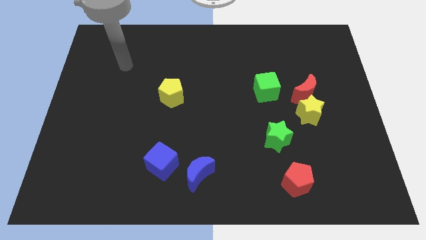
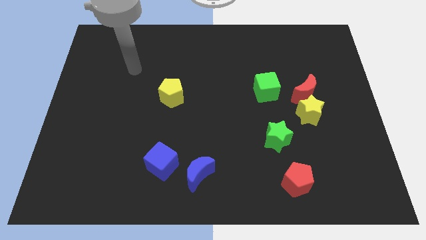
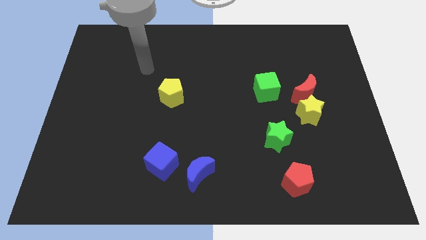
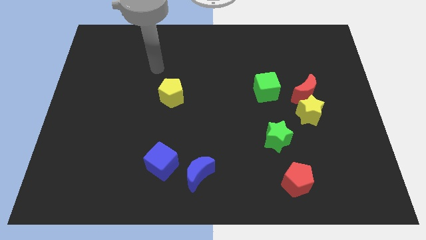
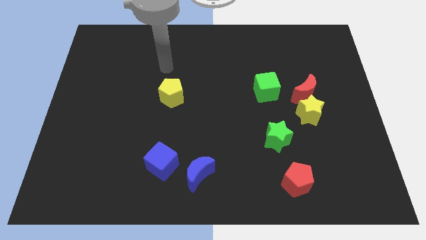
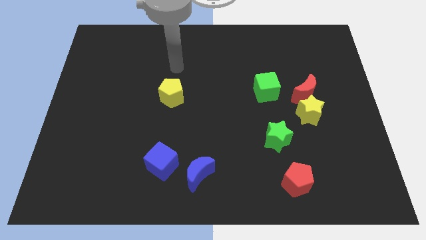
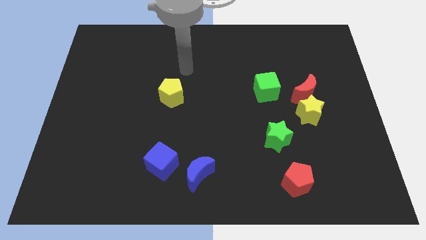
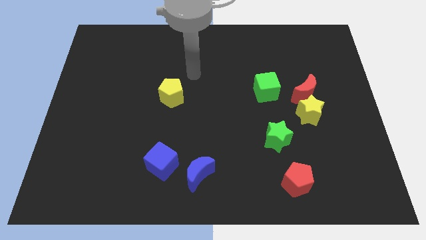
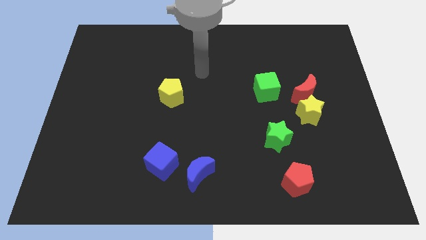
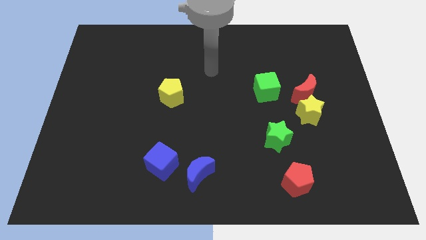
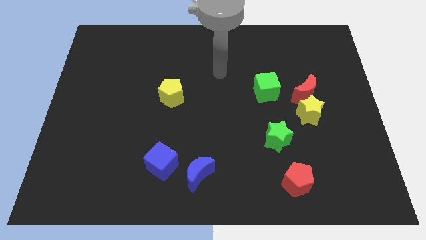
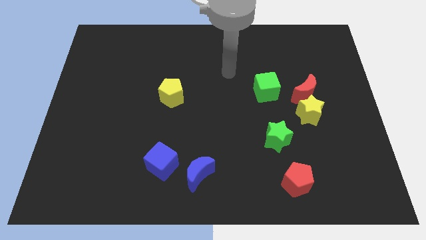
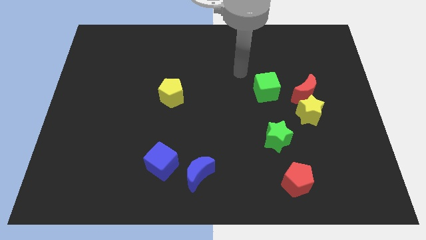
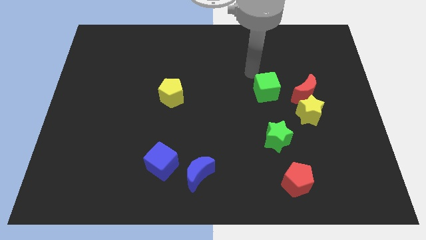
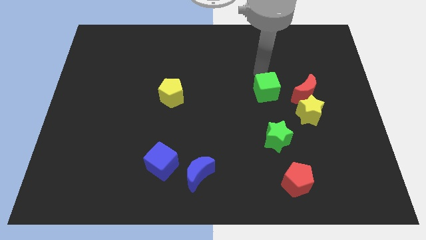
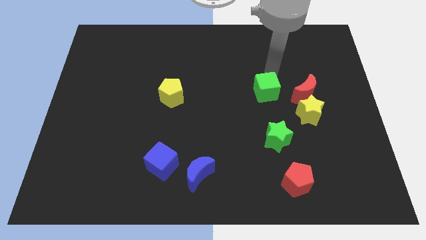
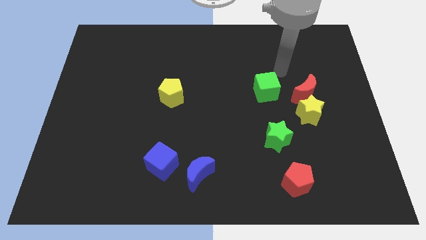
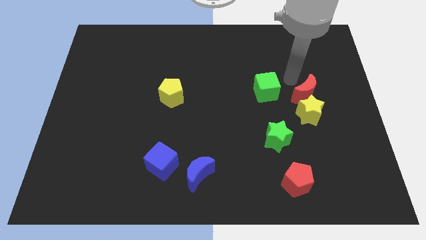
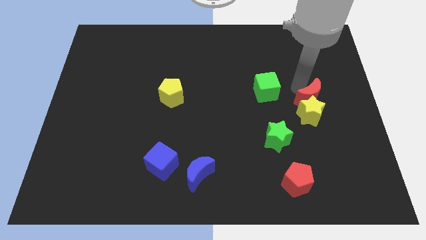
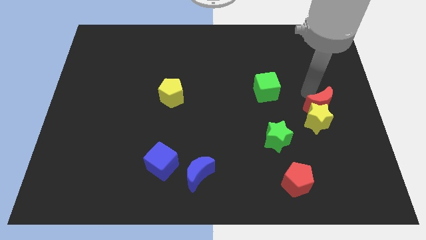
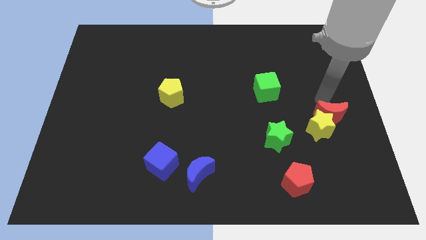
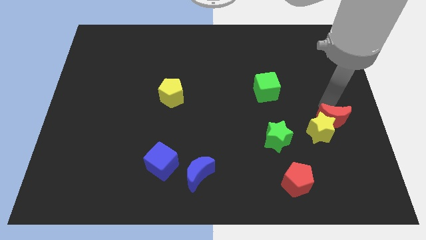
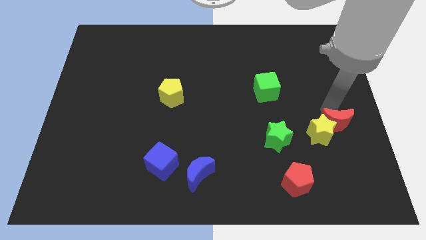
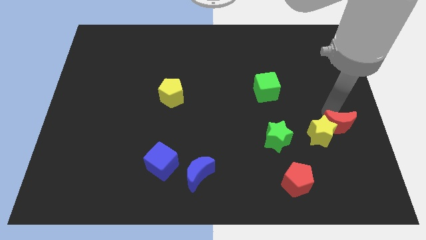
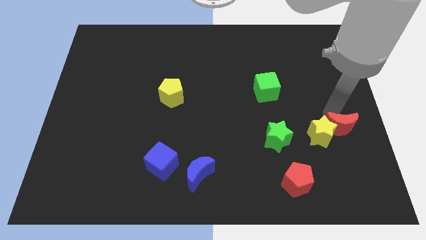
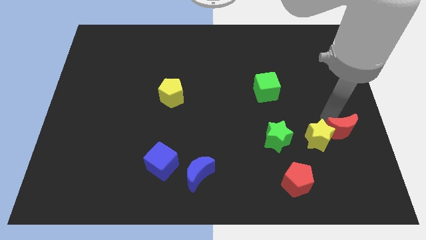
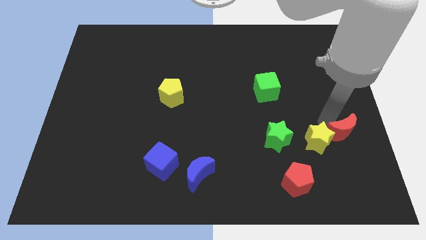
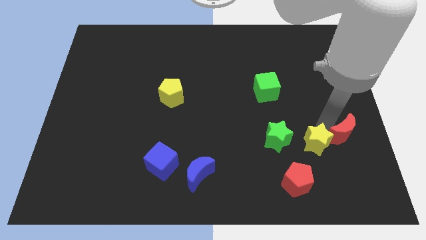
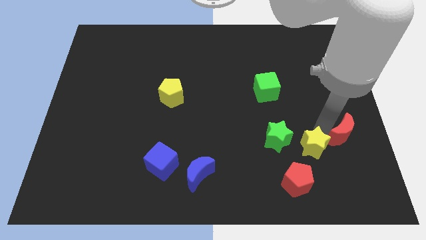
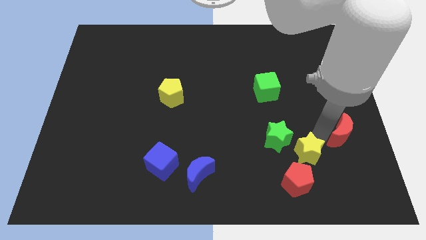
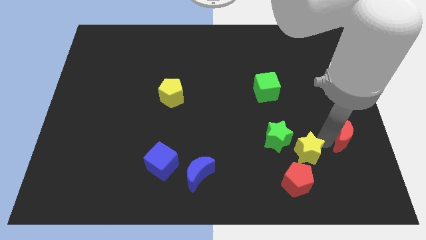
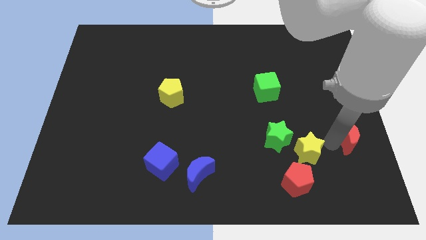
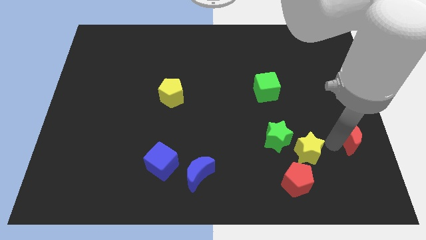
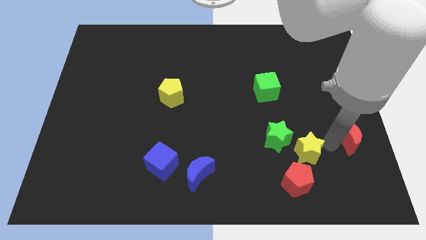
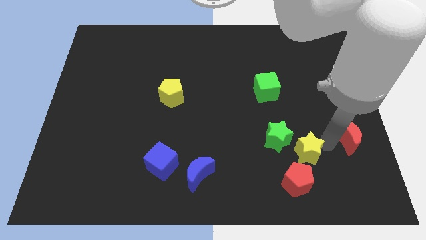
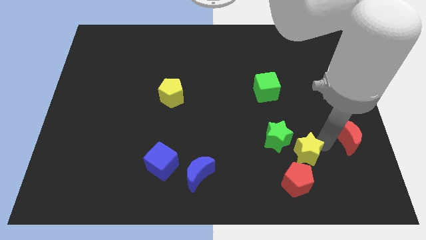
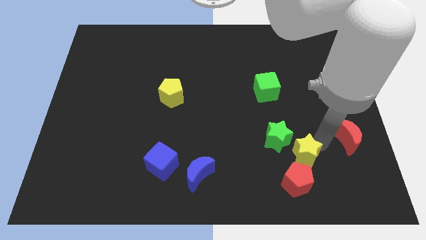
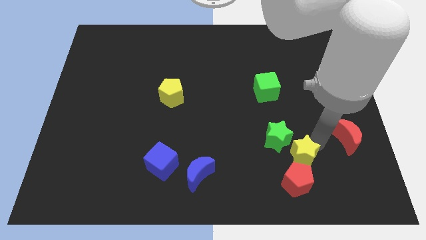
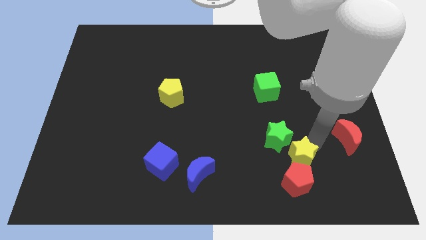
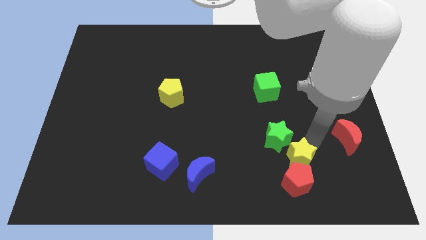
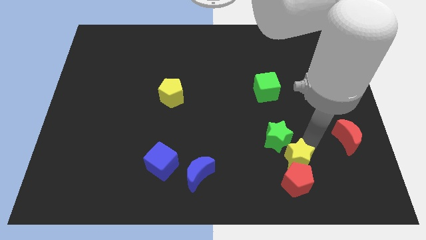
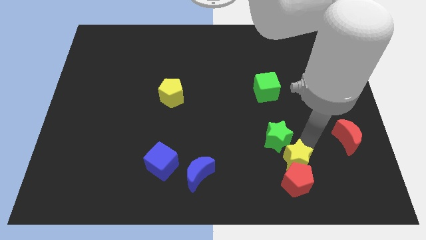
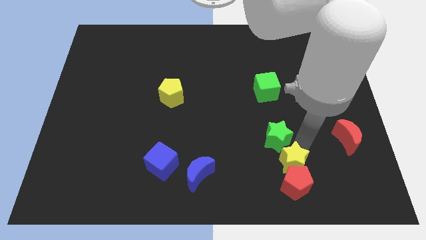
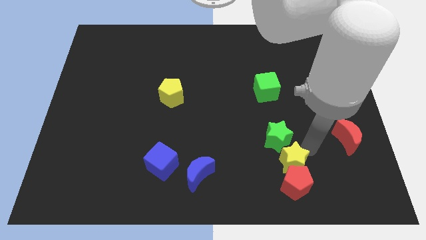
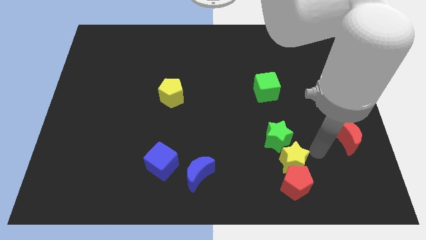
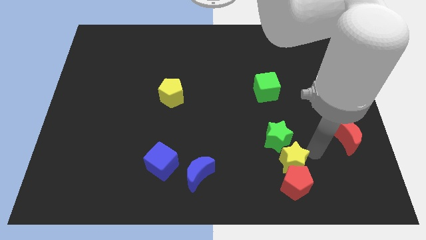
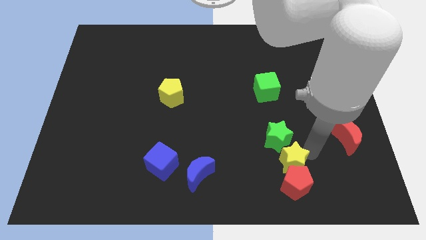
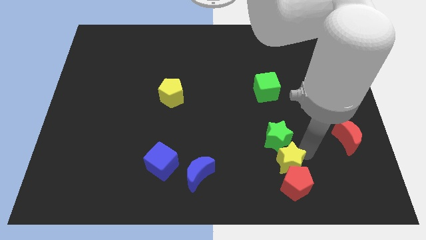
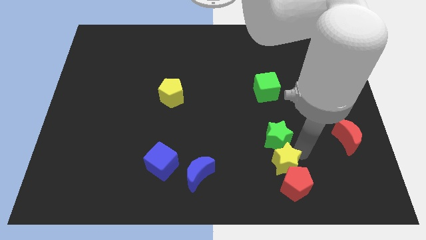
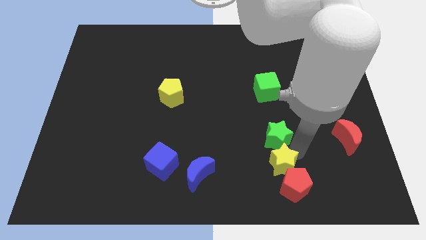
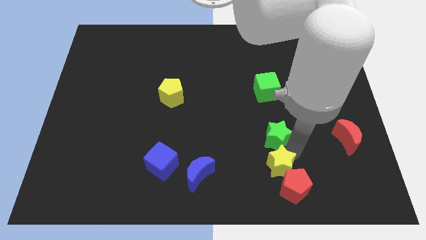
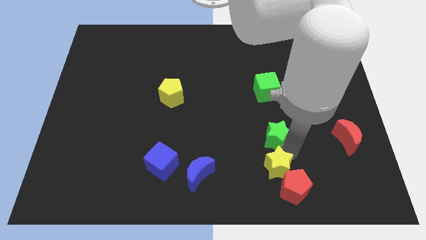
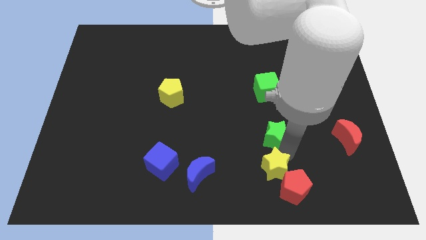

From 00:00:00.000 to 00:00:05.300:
put the yellow star to the right of the blue moon
